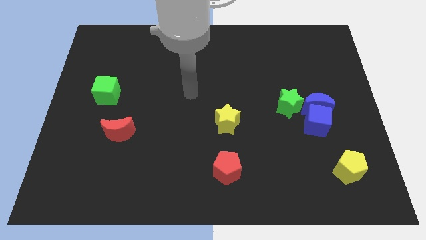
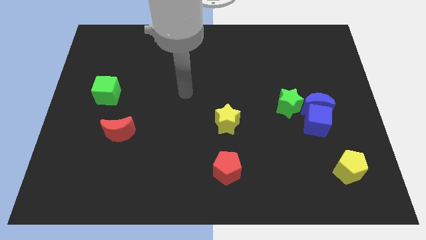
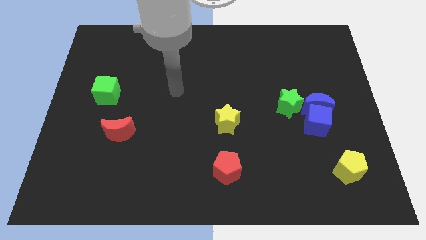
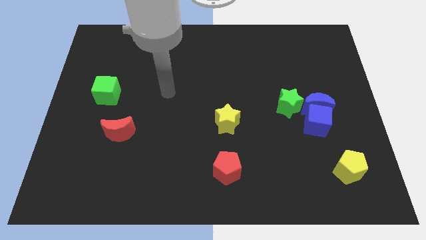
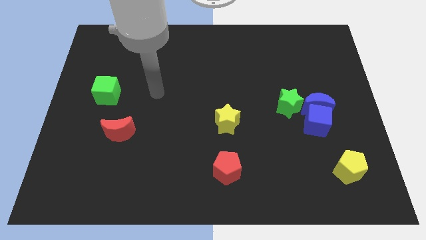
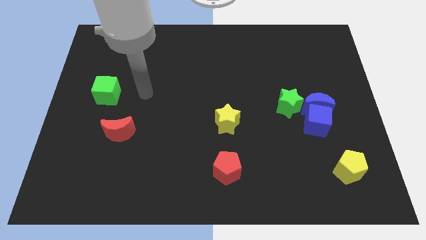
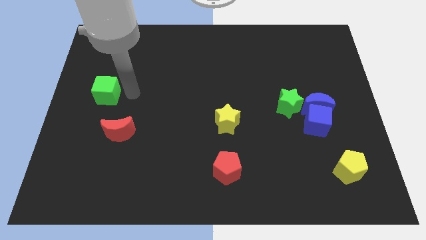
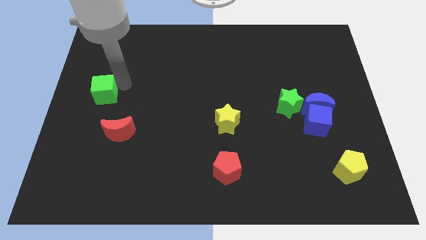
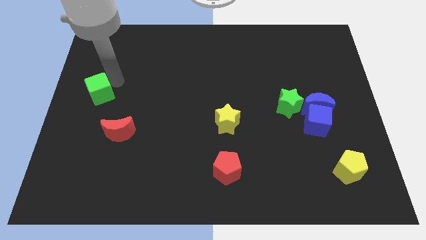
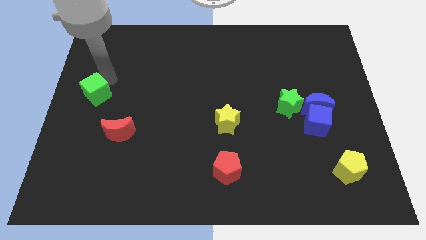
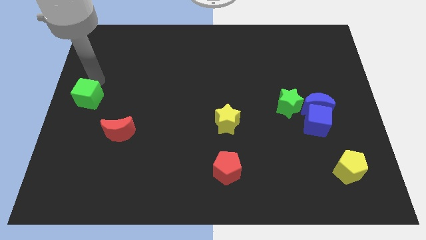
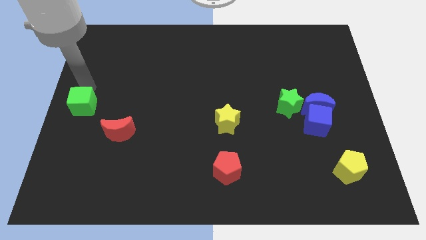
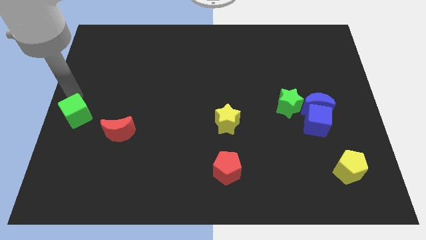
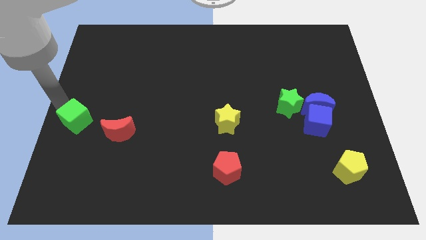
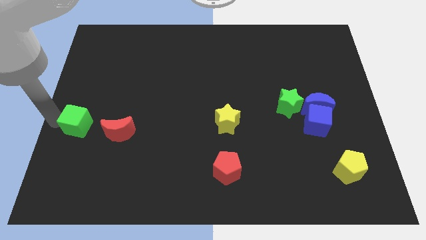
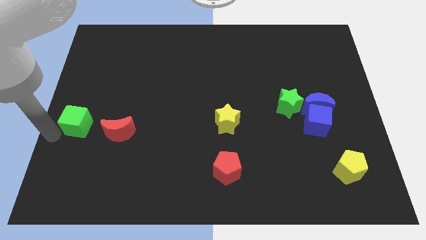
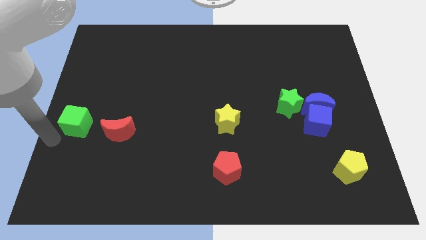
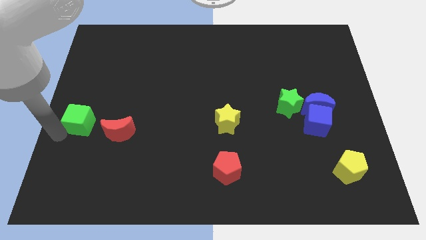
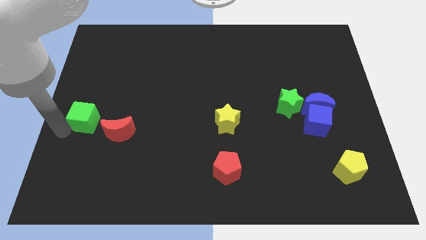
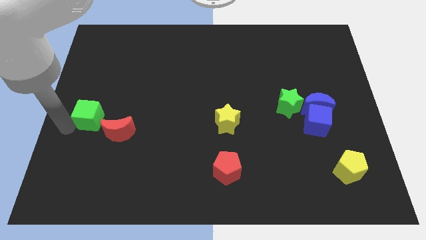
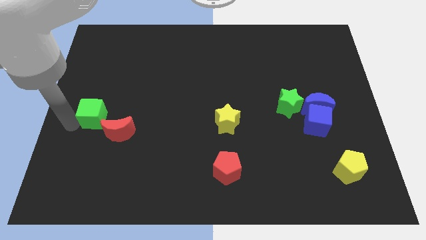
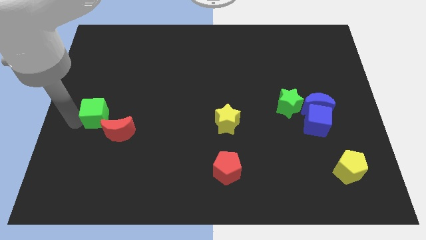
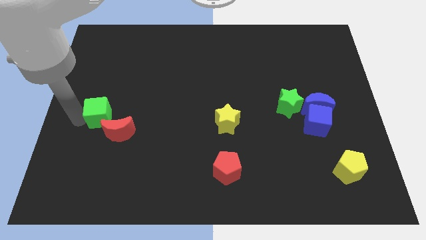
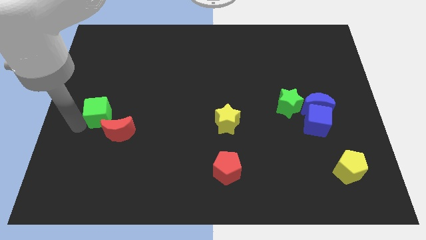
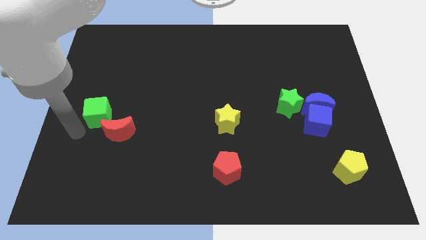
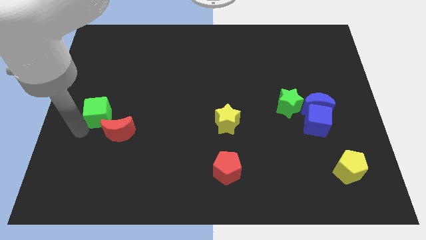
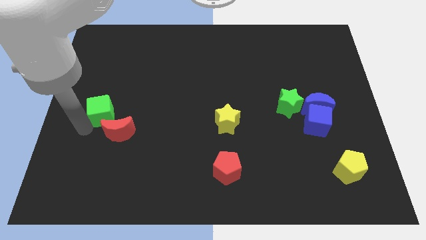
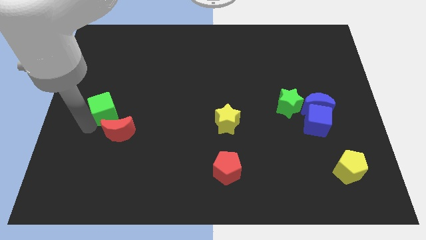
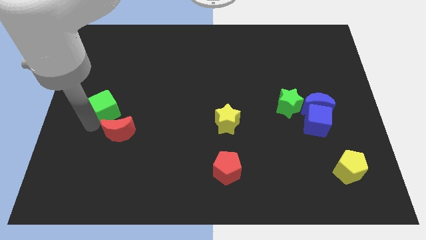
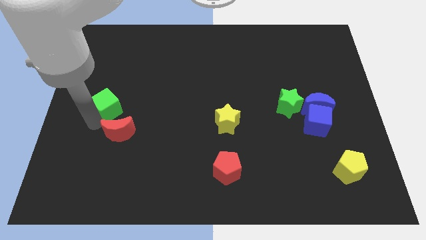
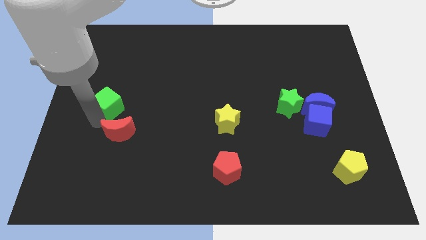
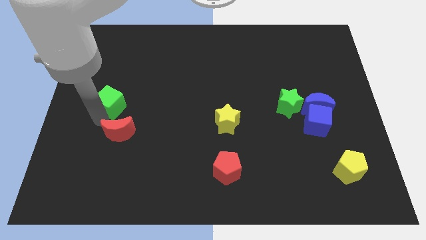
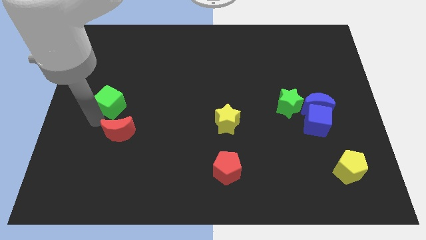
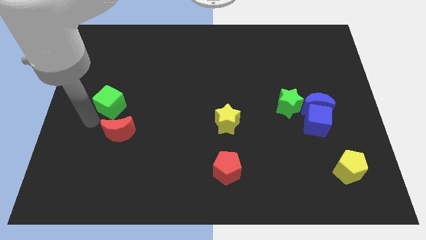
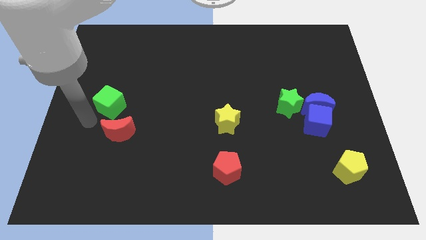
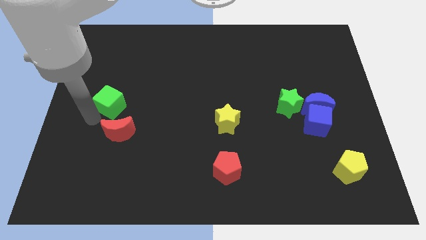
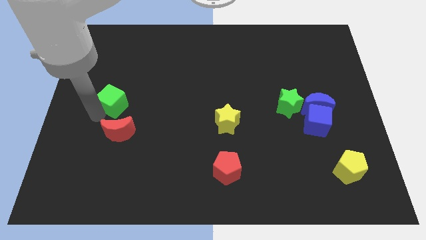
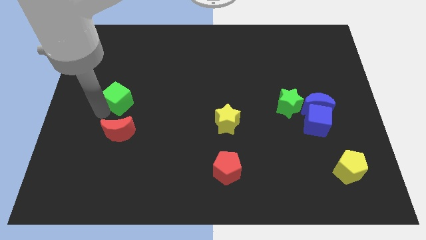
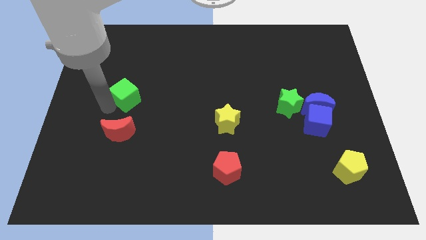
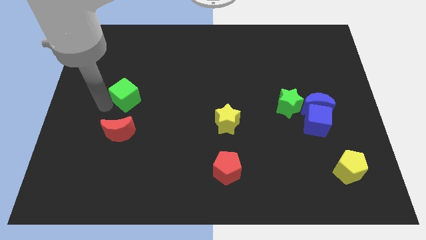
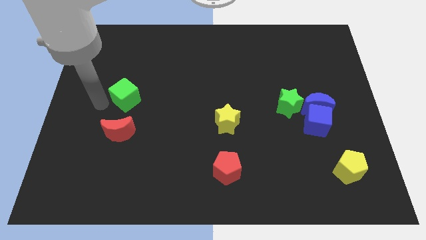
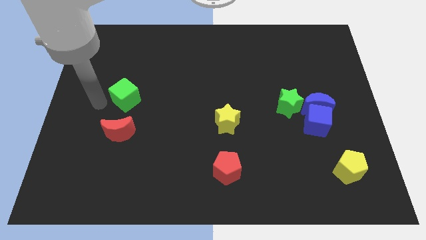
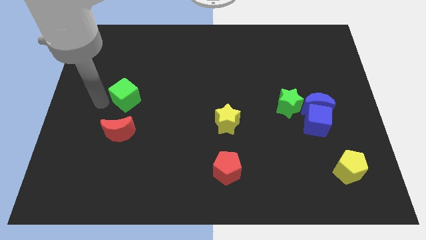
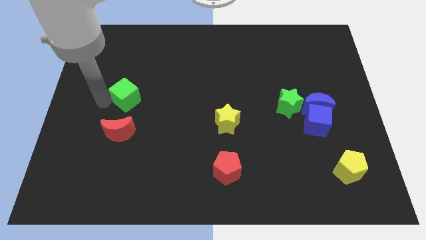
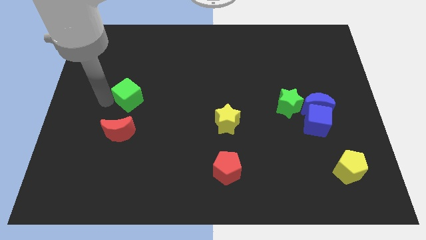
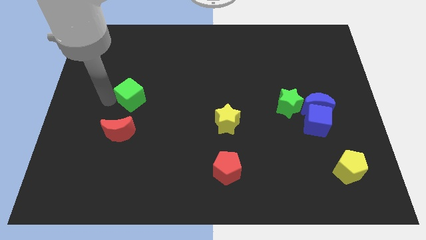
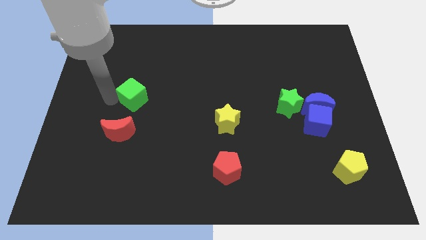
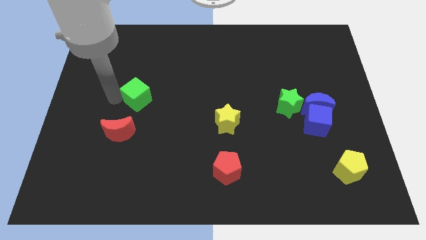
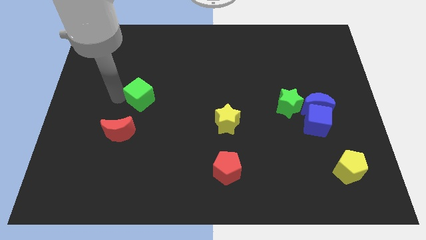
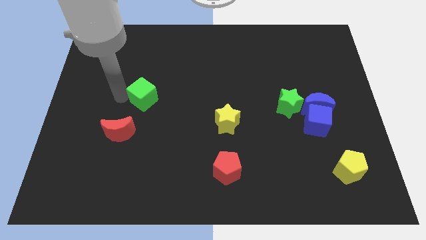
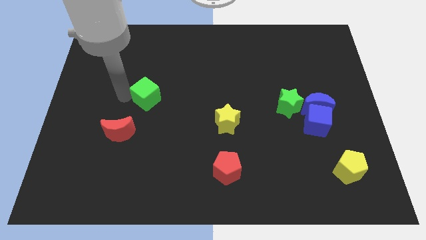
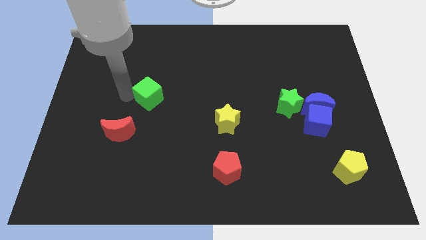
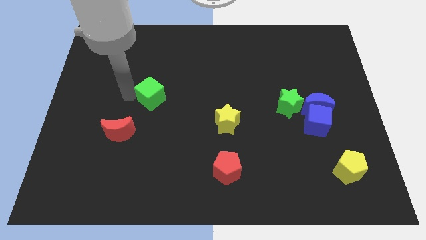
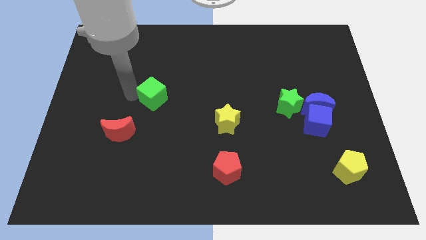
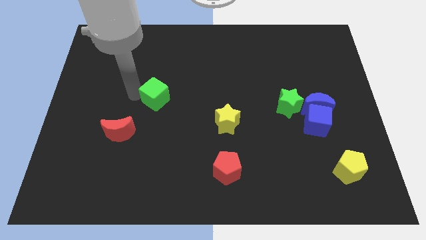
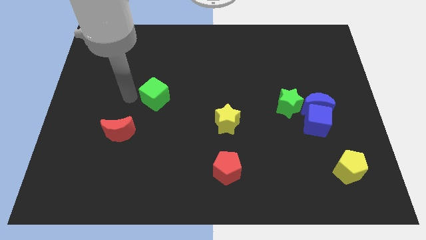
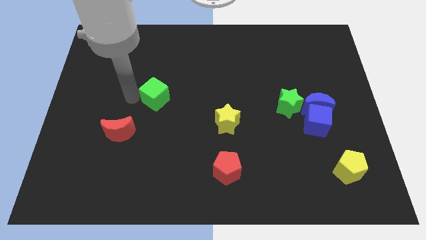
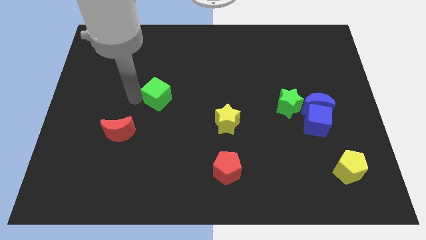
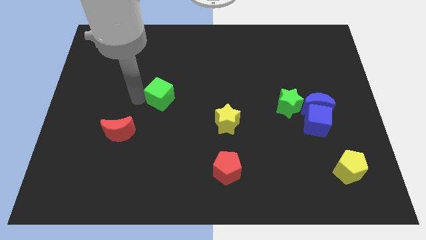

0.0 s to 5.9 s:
push the green cube to the center of the board

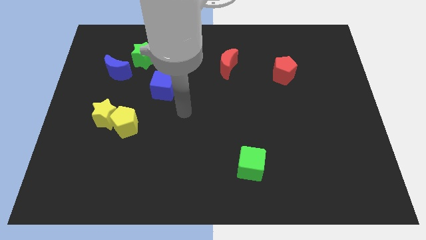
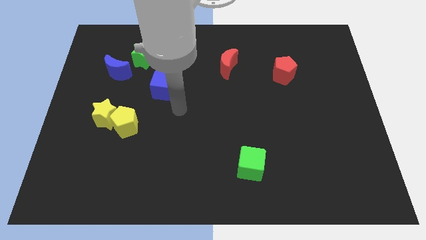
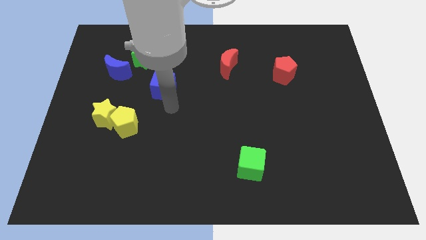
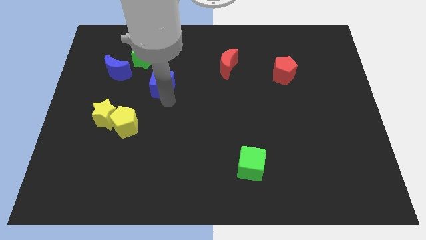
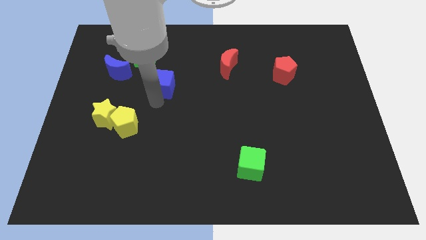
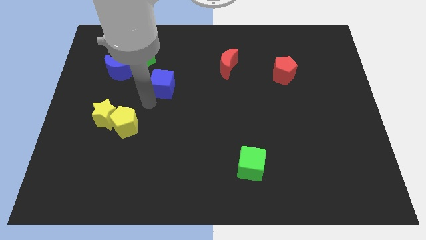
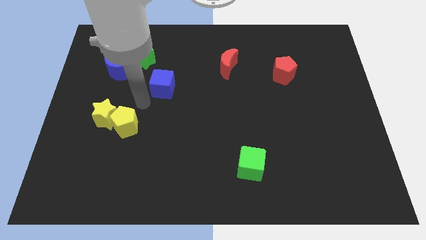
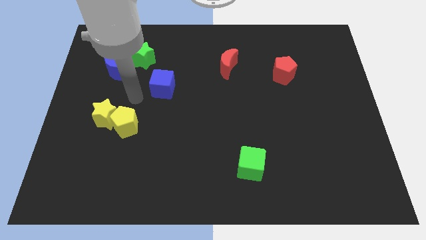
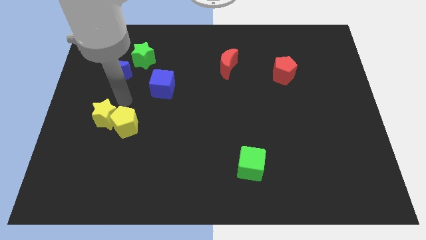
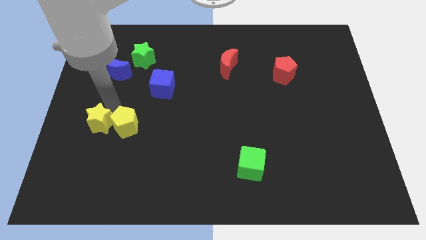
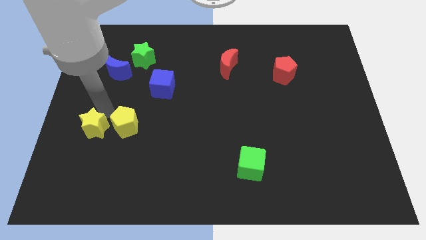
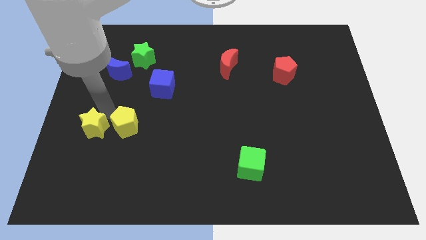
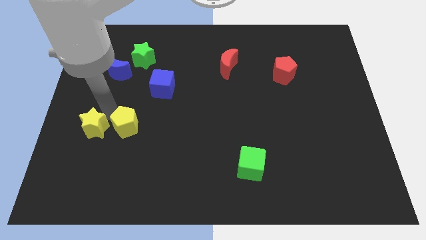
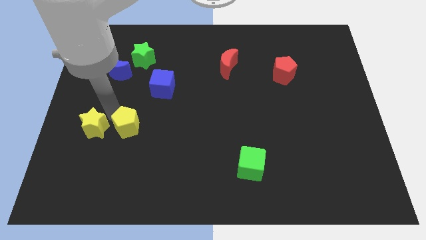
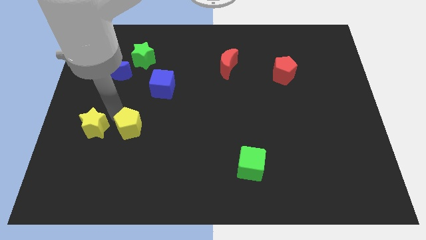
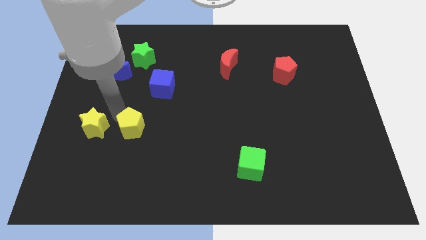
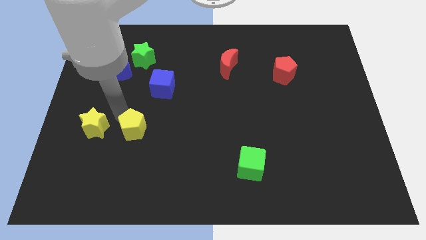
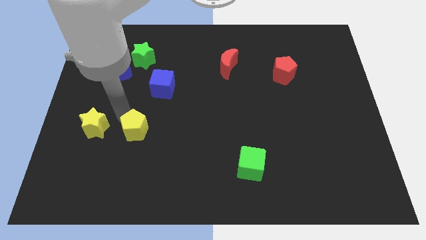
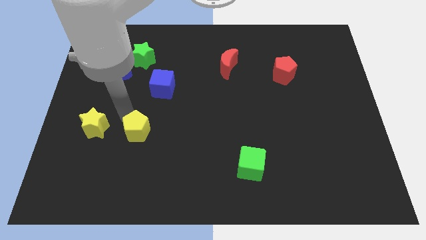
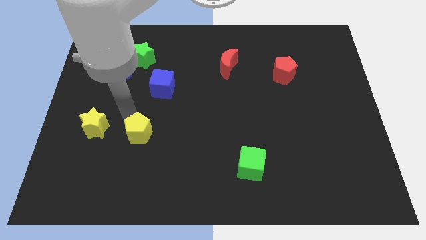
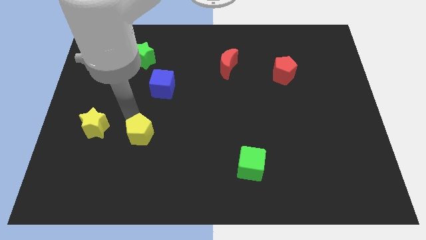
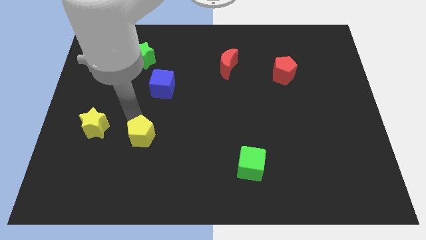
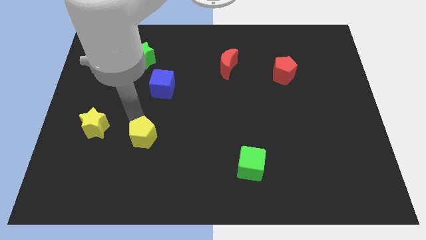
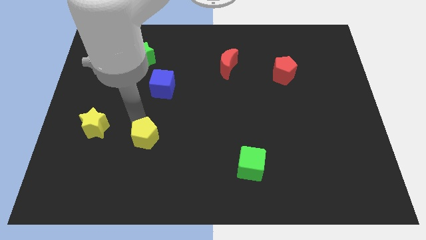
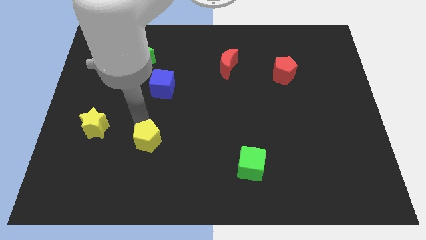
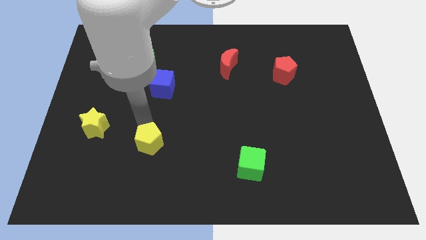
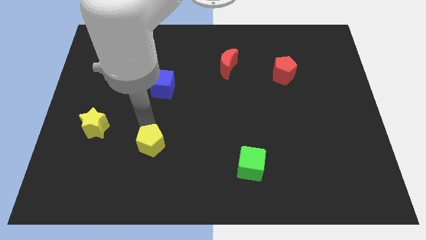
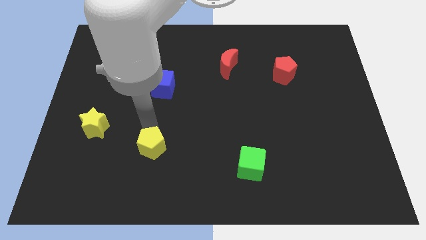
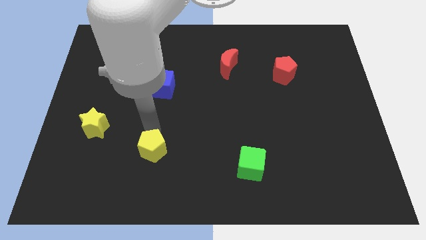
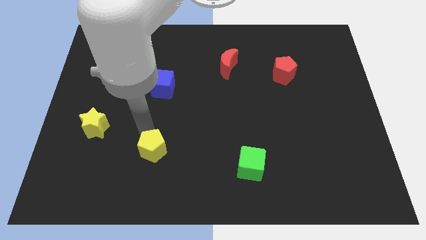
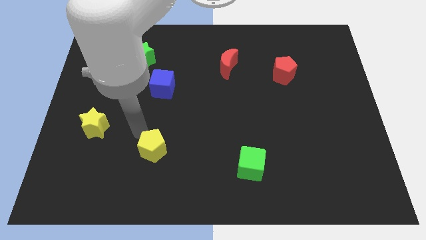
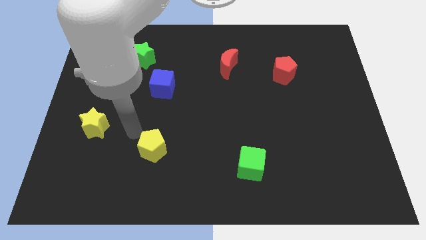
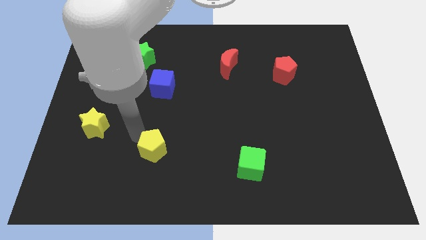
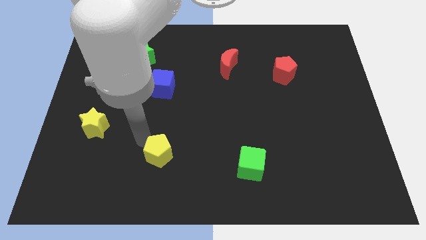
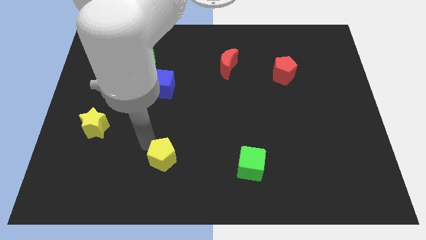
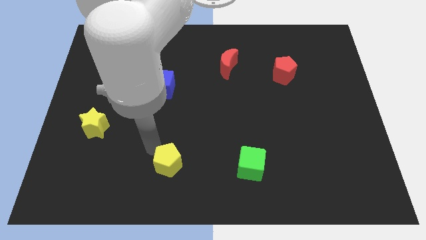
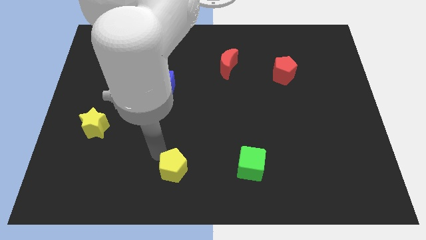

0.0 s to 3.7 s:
put the yellow pentagon to the bottom
